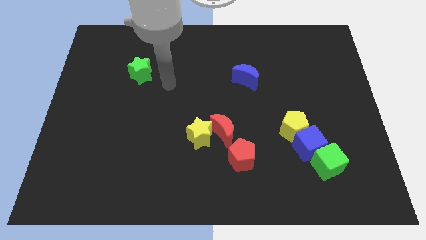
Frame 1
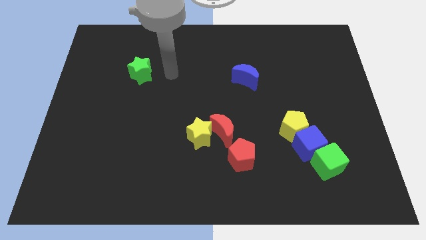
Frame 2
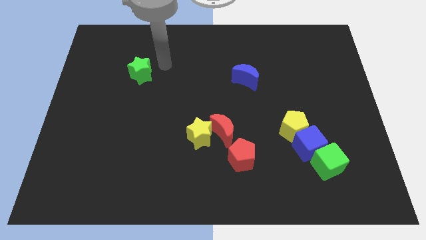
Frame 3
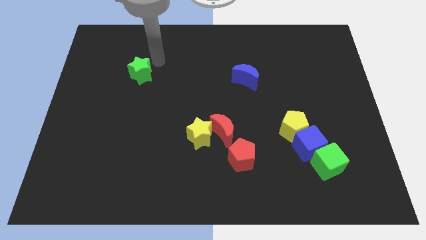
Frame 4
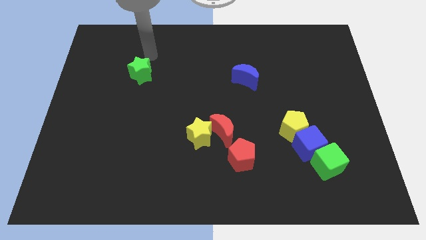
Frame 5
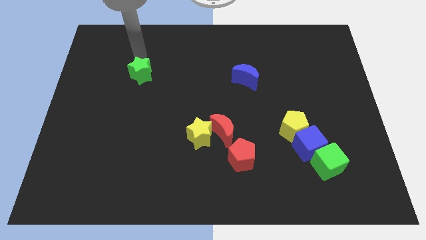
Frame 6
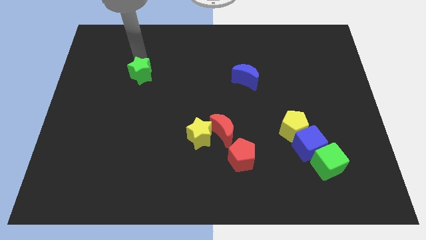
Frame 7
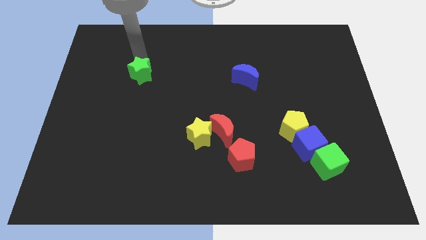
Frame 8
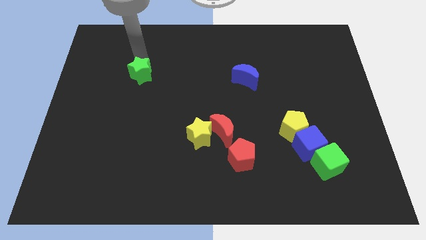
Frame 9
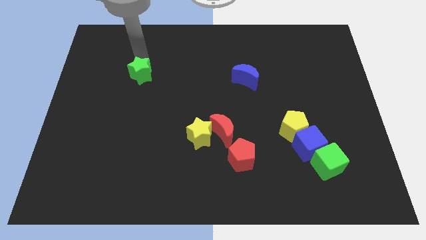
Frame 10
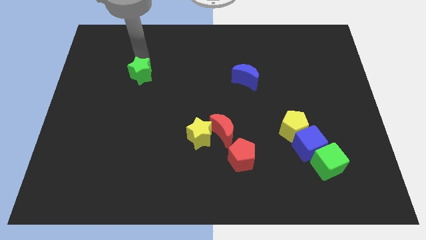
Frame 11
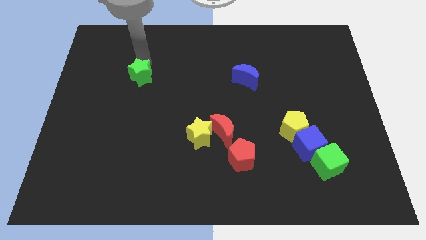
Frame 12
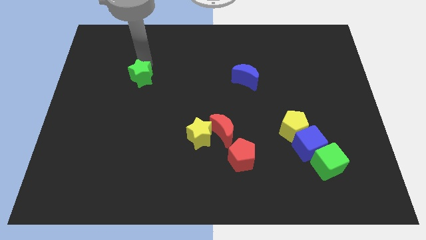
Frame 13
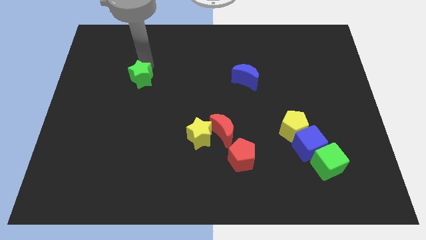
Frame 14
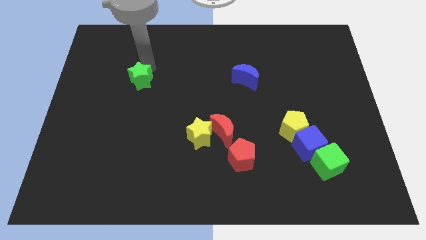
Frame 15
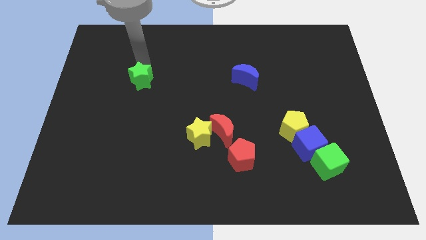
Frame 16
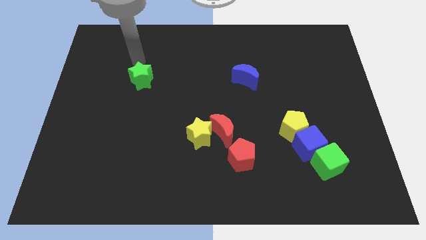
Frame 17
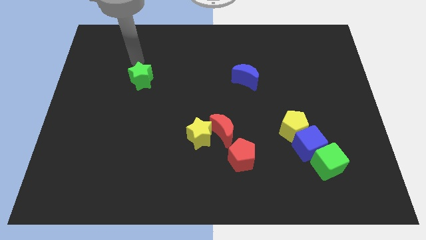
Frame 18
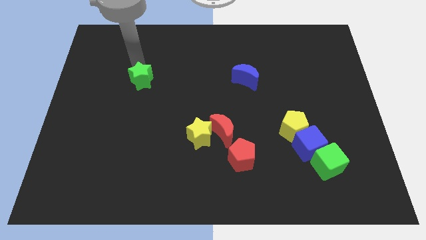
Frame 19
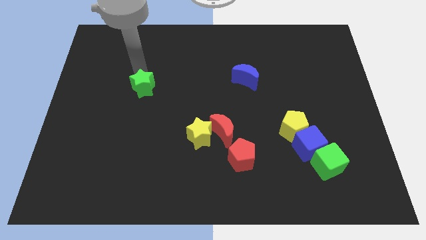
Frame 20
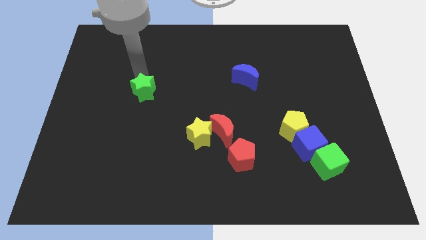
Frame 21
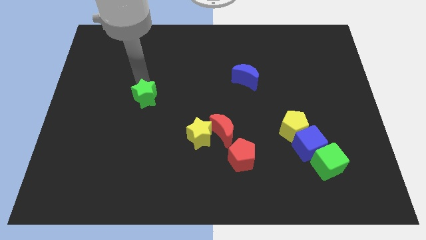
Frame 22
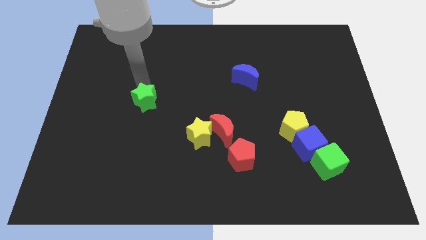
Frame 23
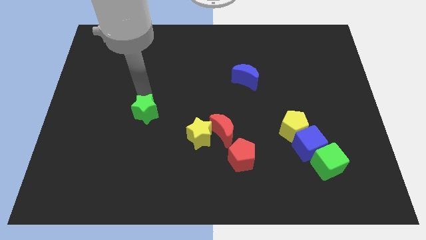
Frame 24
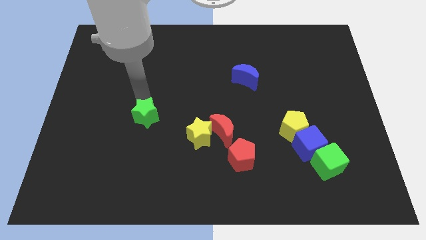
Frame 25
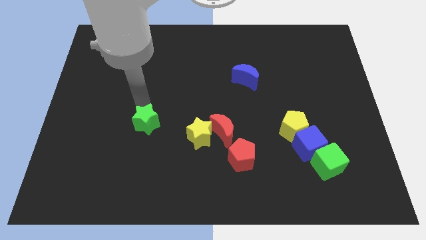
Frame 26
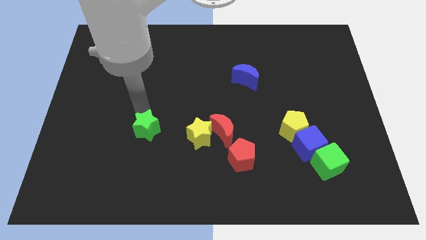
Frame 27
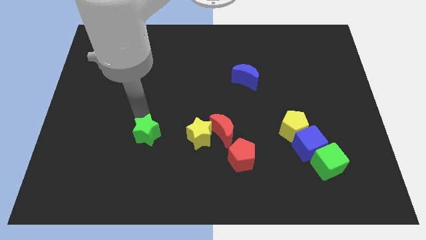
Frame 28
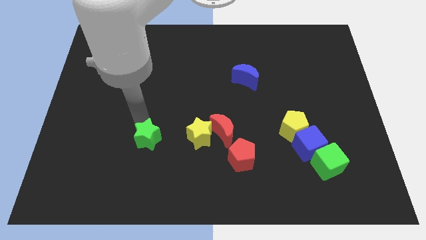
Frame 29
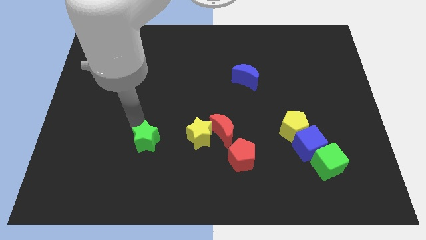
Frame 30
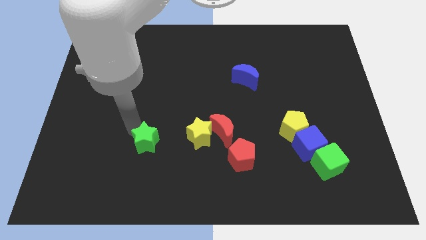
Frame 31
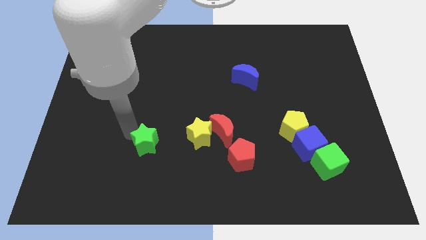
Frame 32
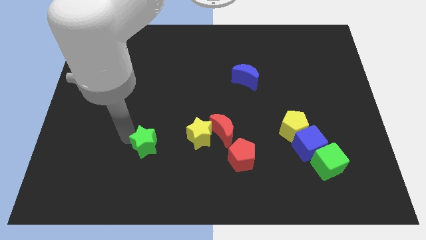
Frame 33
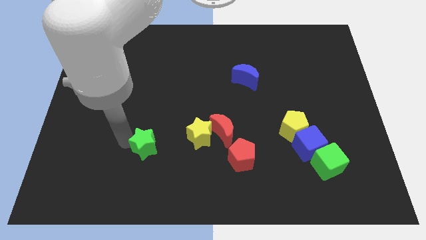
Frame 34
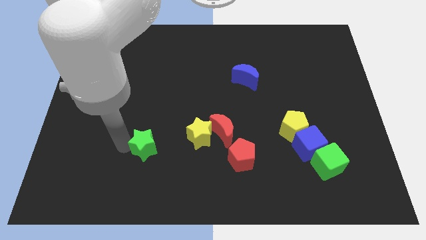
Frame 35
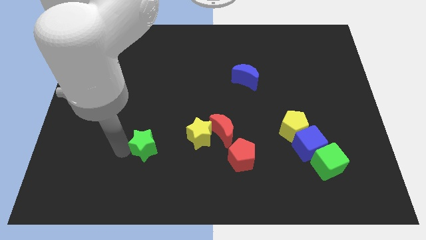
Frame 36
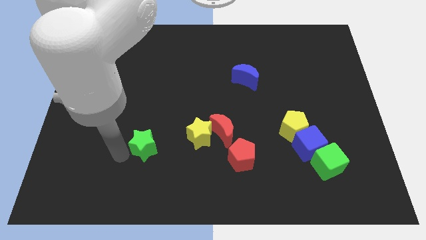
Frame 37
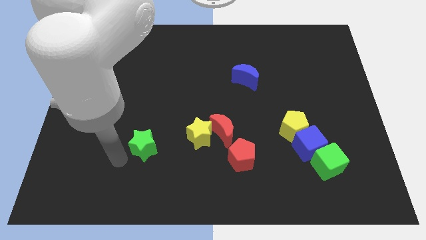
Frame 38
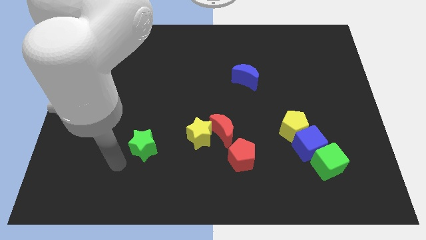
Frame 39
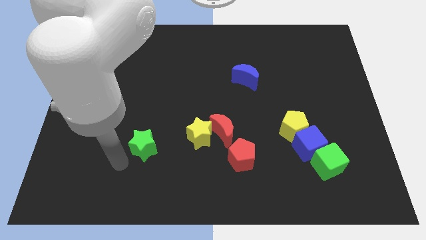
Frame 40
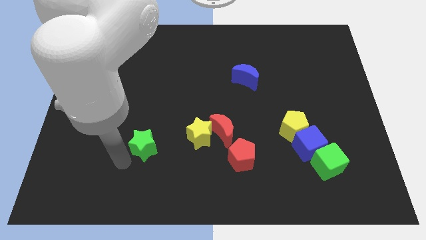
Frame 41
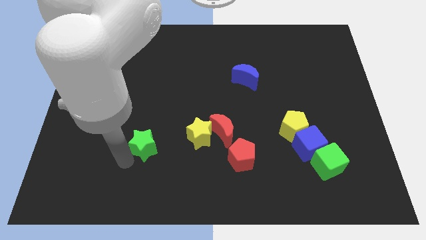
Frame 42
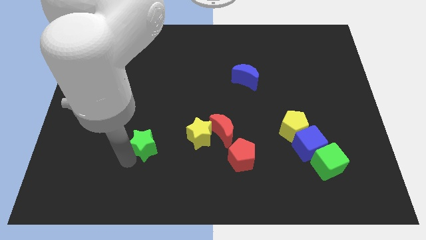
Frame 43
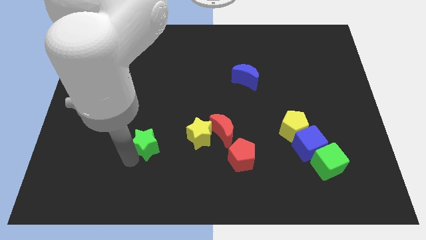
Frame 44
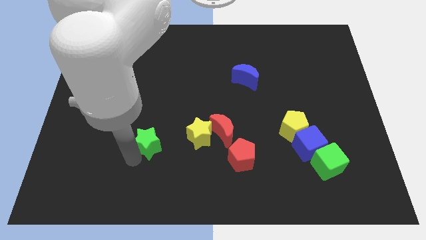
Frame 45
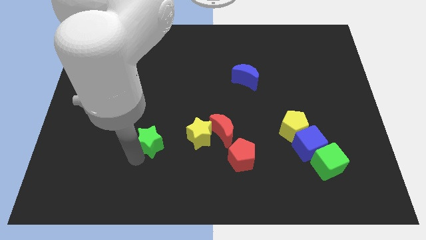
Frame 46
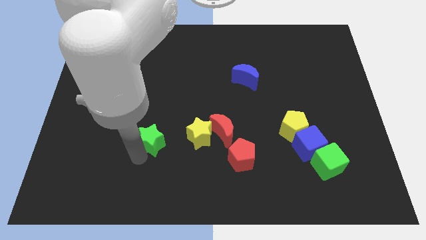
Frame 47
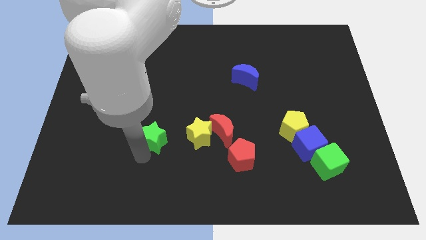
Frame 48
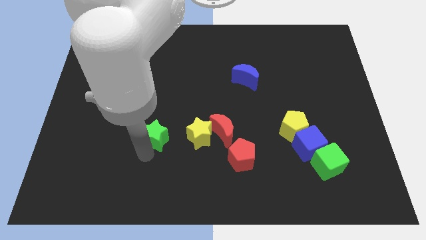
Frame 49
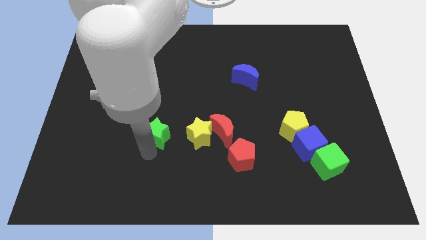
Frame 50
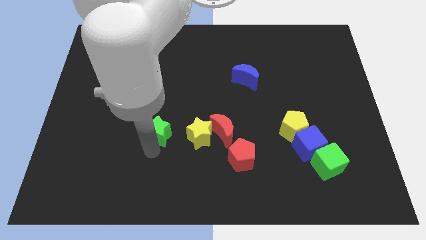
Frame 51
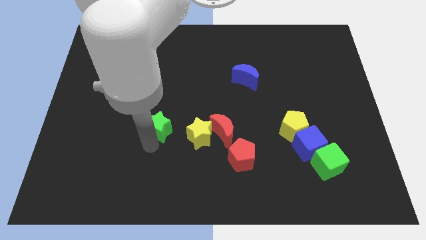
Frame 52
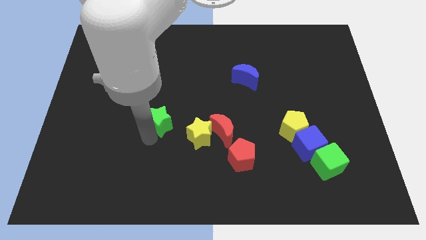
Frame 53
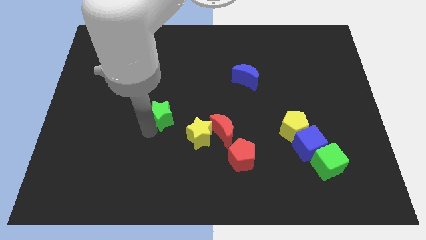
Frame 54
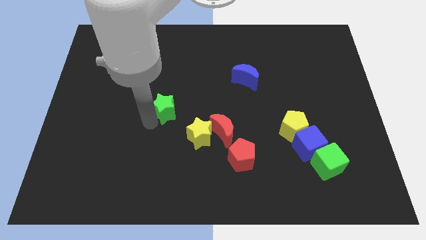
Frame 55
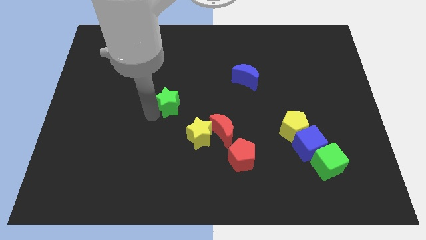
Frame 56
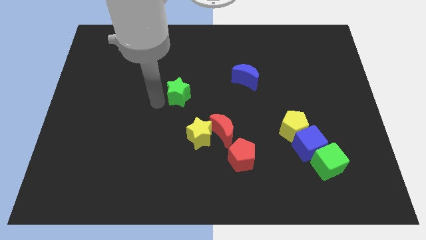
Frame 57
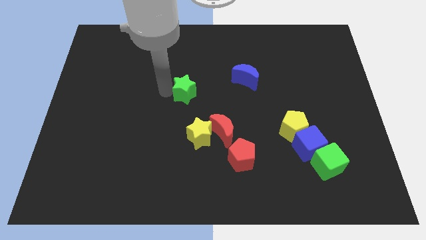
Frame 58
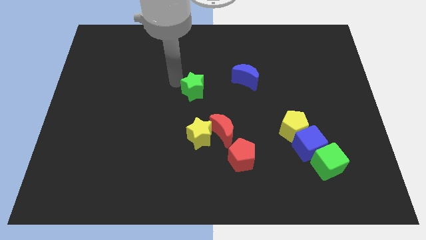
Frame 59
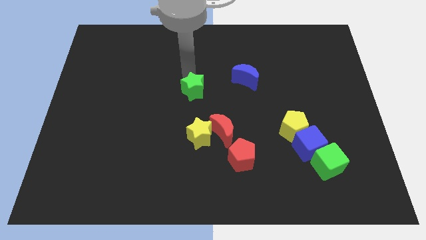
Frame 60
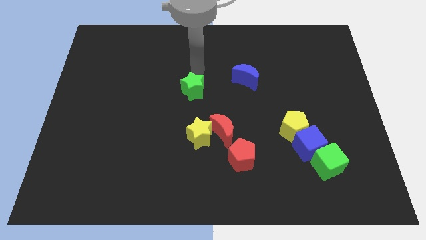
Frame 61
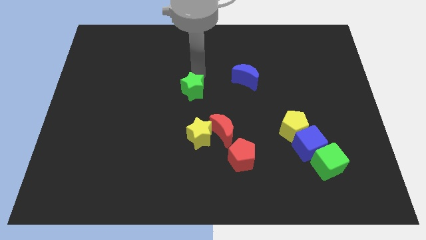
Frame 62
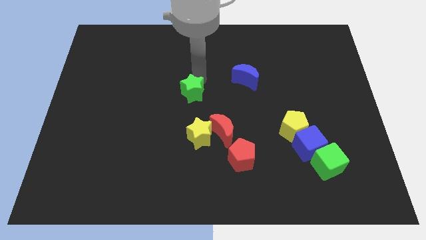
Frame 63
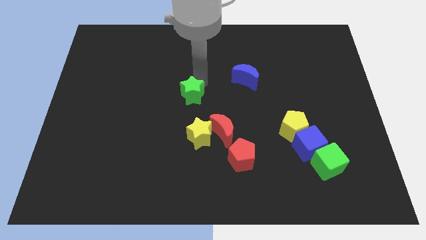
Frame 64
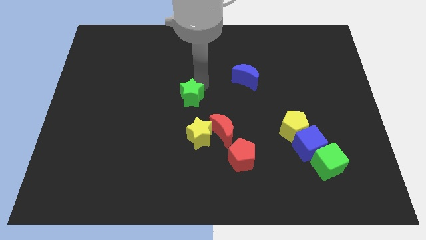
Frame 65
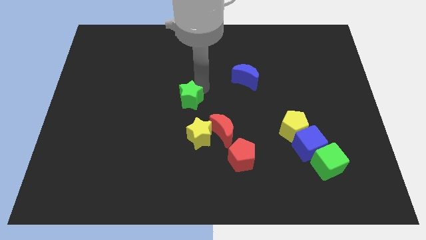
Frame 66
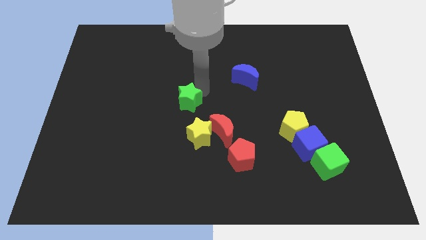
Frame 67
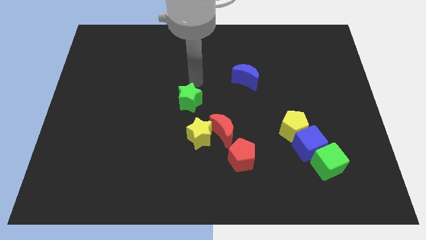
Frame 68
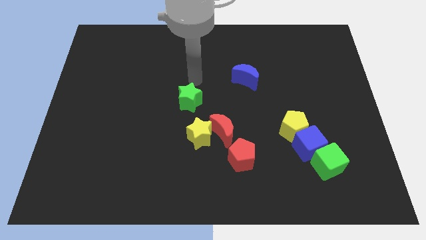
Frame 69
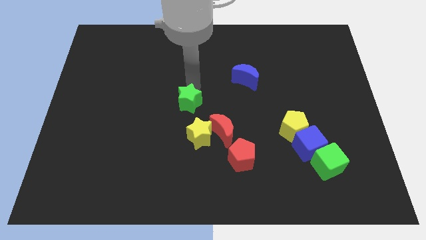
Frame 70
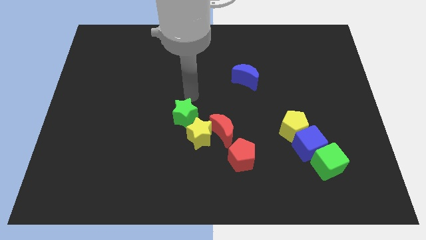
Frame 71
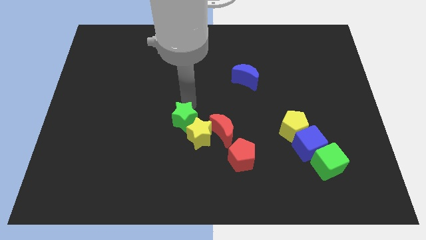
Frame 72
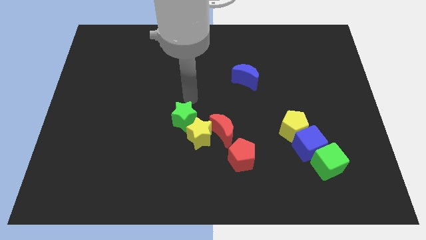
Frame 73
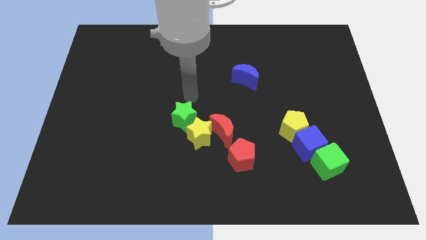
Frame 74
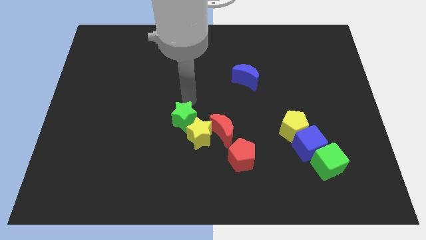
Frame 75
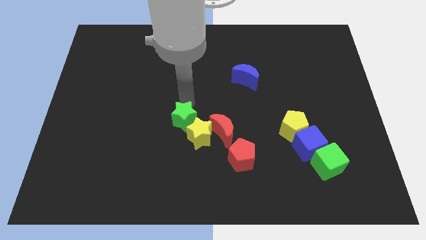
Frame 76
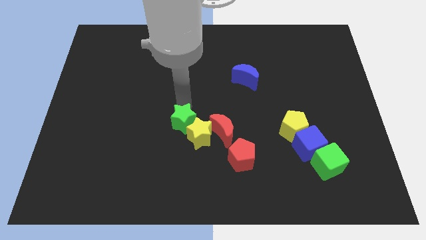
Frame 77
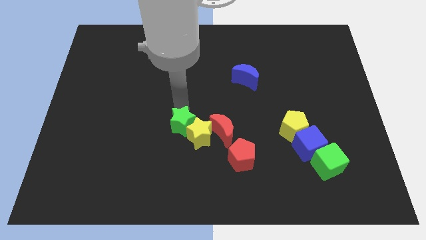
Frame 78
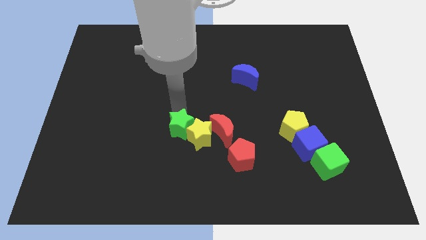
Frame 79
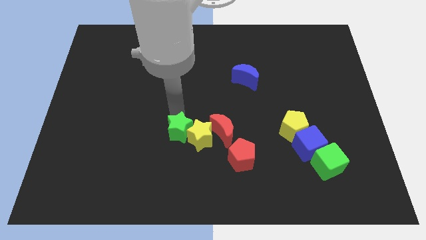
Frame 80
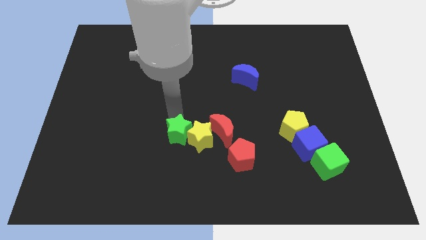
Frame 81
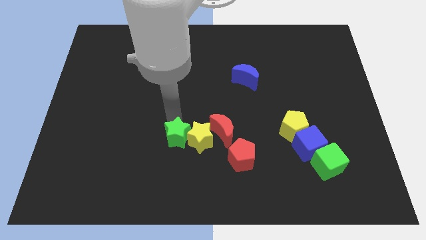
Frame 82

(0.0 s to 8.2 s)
push the green star diagonally down and to the left of the yellow star

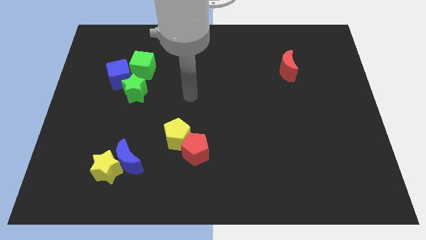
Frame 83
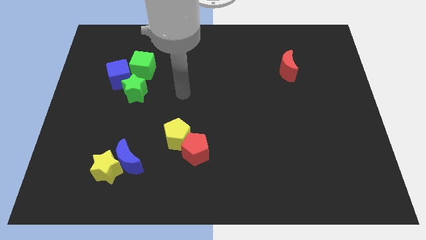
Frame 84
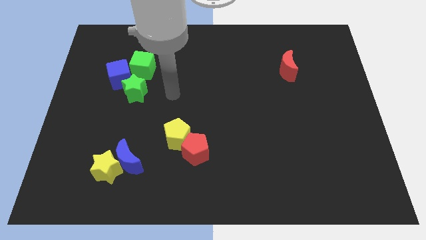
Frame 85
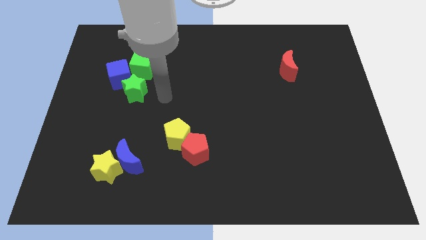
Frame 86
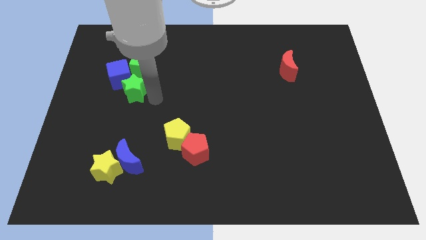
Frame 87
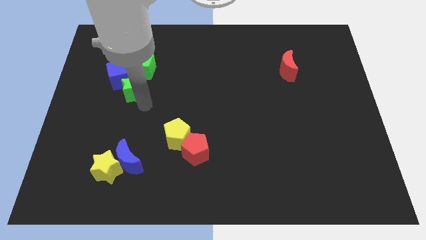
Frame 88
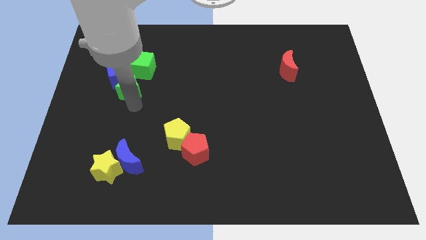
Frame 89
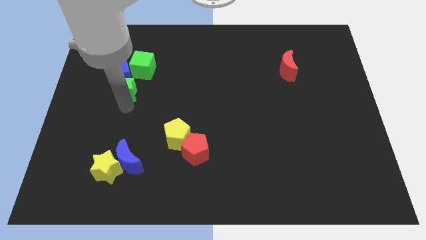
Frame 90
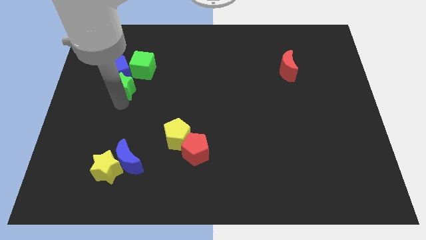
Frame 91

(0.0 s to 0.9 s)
push the blue cube to the top right side of the green star
